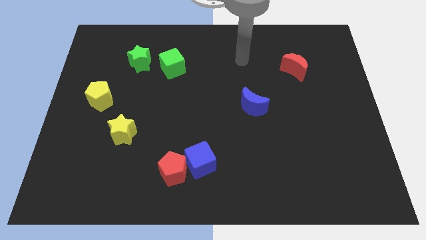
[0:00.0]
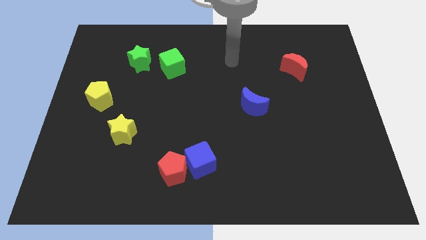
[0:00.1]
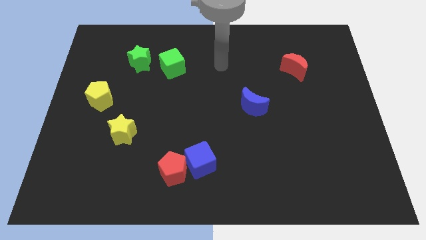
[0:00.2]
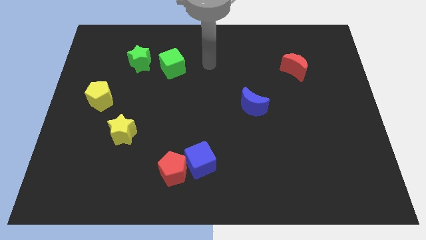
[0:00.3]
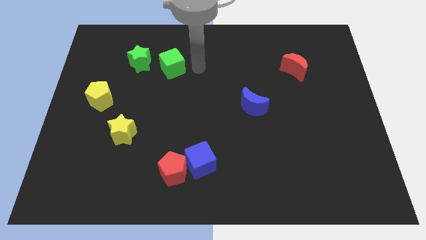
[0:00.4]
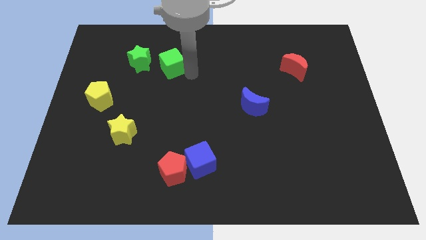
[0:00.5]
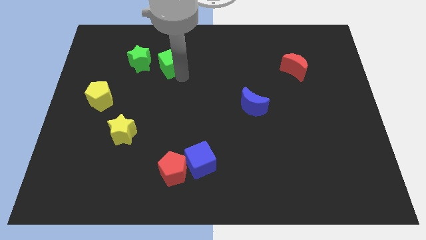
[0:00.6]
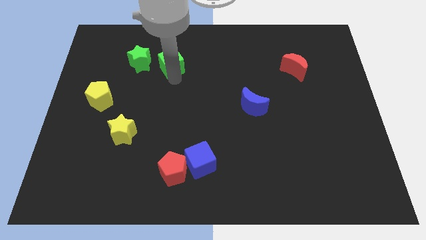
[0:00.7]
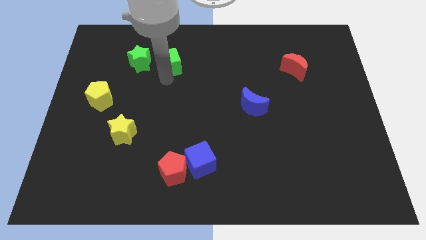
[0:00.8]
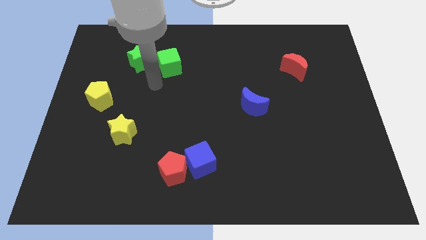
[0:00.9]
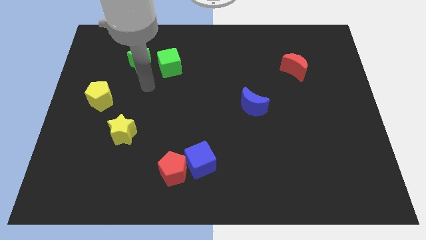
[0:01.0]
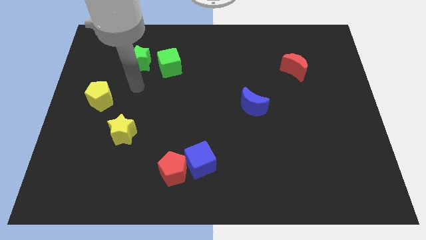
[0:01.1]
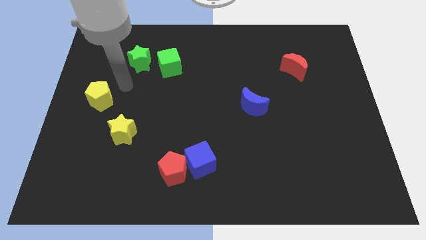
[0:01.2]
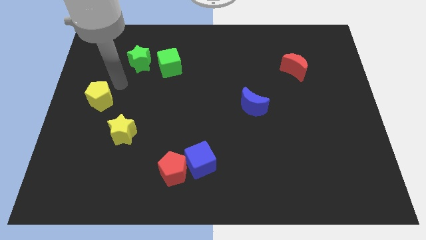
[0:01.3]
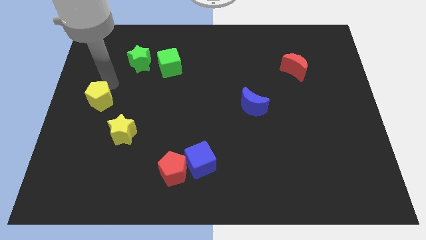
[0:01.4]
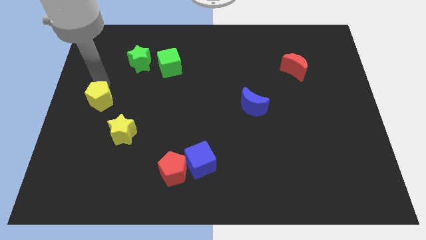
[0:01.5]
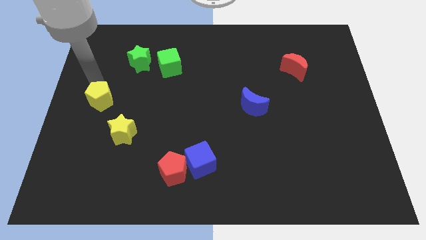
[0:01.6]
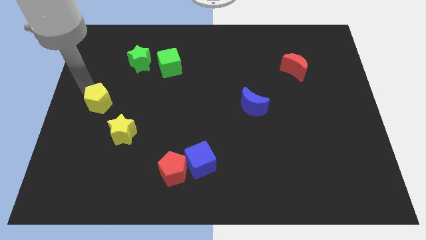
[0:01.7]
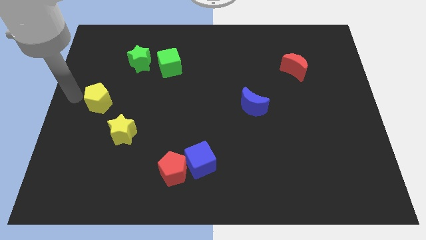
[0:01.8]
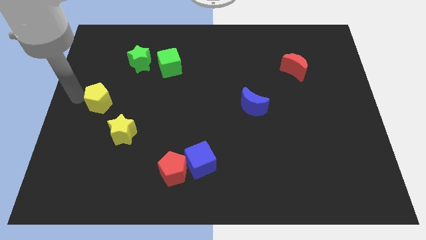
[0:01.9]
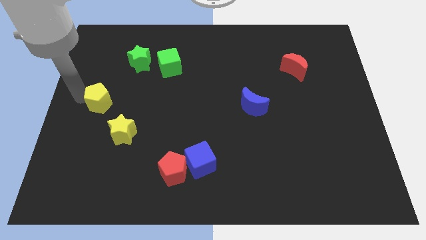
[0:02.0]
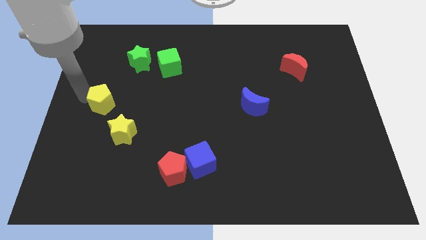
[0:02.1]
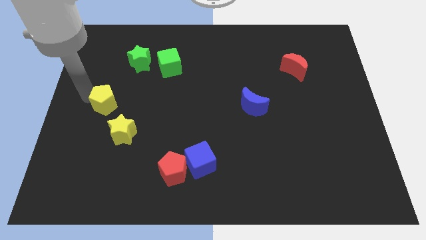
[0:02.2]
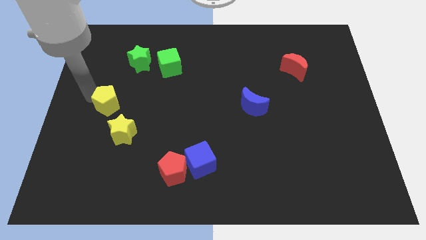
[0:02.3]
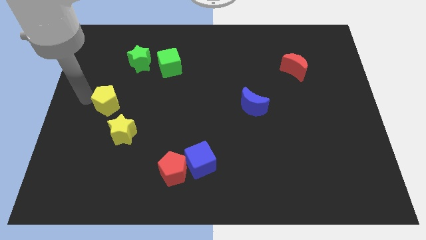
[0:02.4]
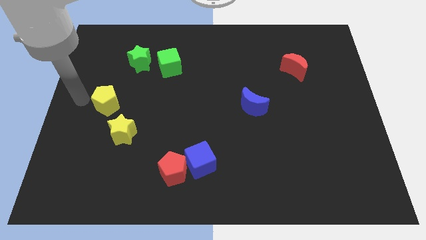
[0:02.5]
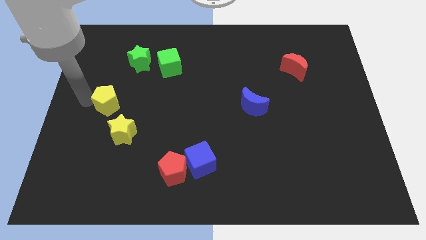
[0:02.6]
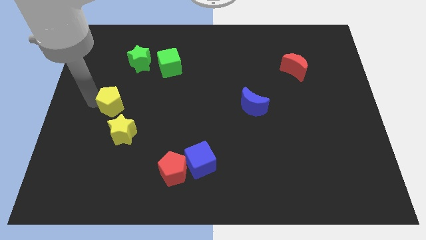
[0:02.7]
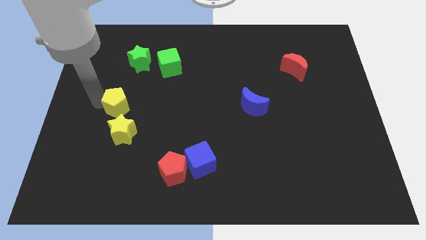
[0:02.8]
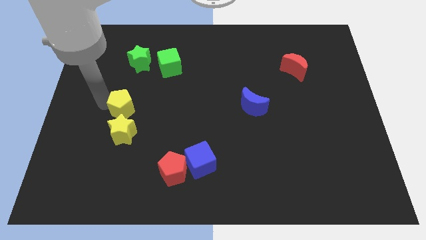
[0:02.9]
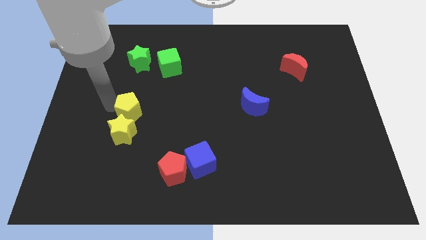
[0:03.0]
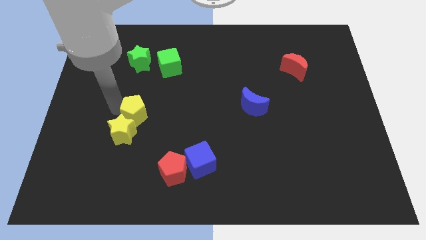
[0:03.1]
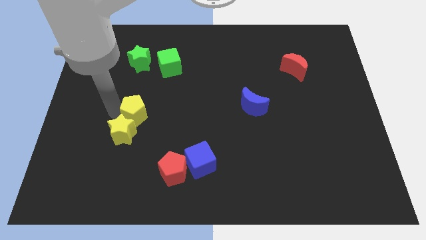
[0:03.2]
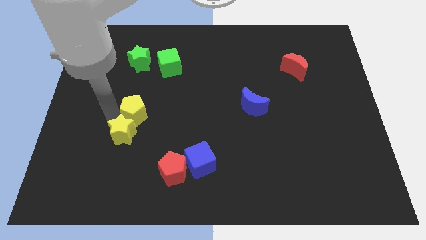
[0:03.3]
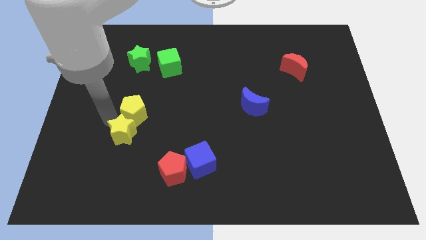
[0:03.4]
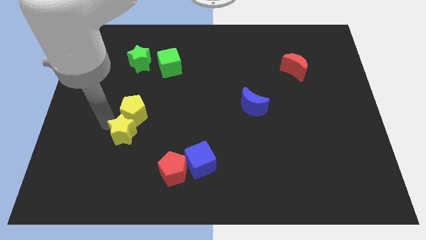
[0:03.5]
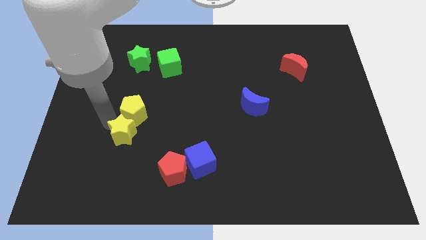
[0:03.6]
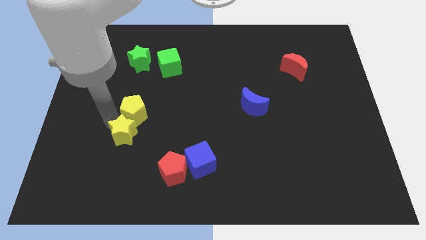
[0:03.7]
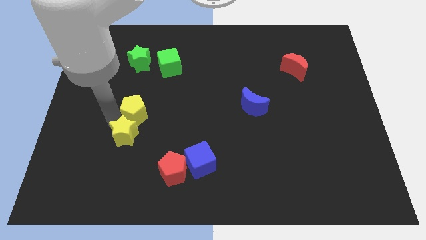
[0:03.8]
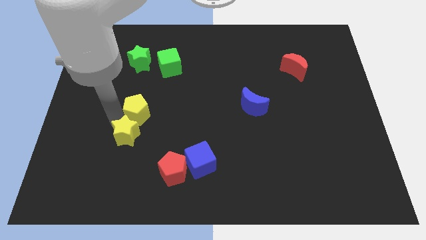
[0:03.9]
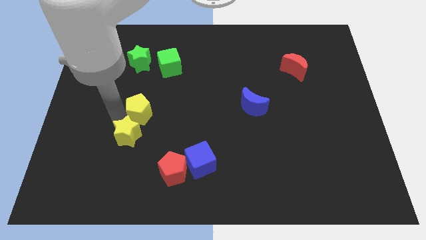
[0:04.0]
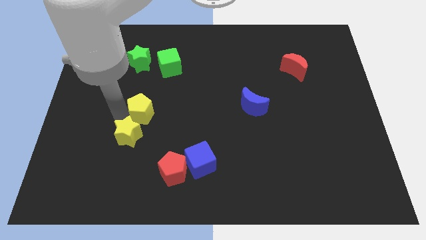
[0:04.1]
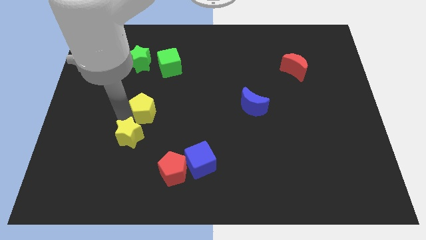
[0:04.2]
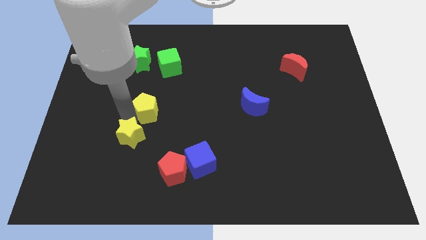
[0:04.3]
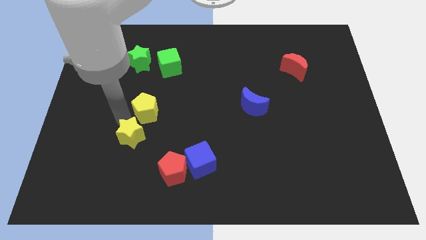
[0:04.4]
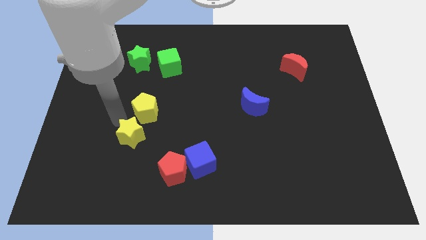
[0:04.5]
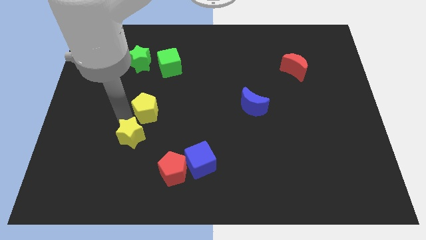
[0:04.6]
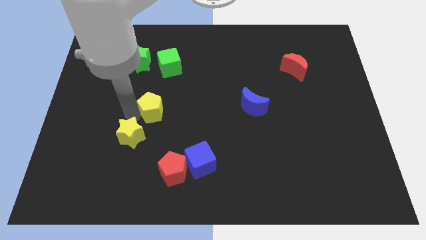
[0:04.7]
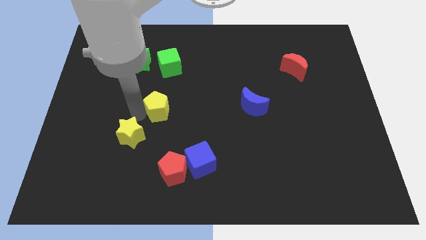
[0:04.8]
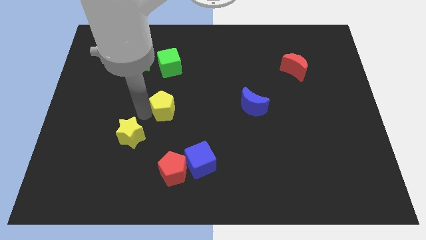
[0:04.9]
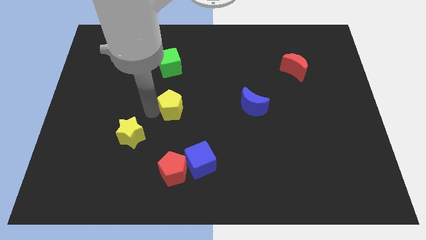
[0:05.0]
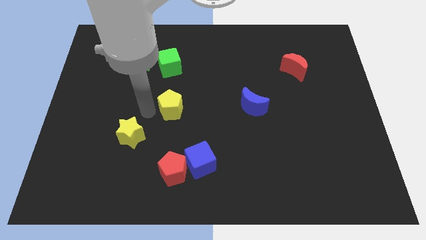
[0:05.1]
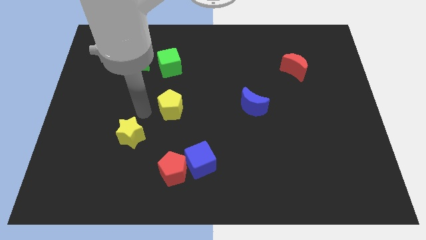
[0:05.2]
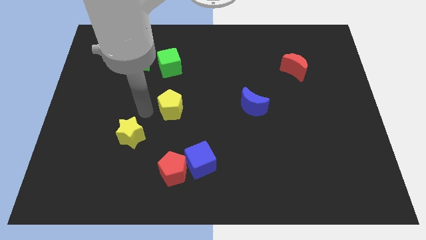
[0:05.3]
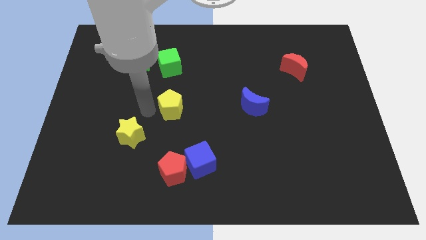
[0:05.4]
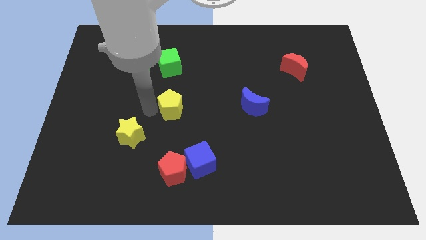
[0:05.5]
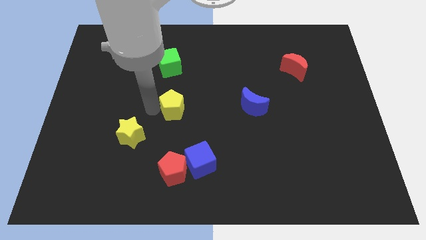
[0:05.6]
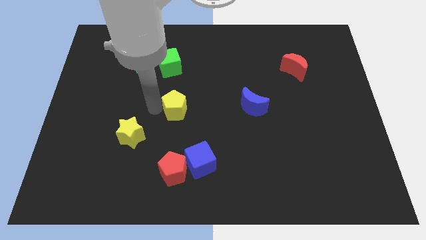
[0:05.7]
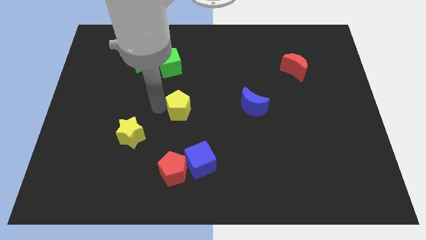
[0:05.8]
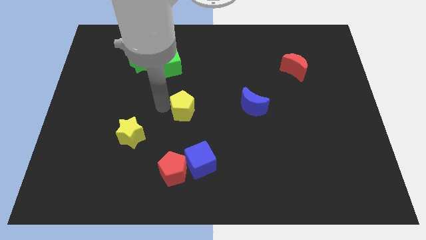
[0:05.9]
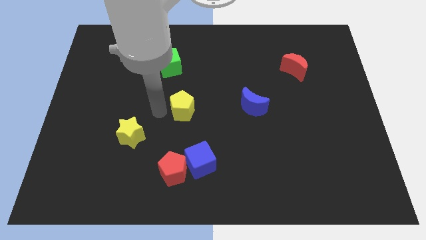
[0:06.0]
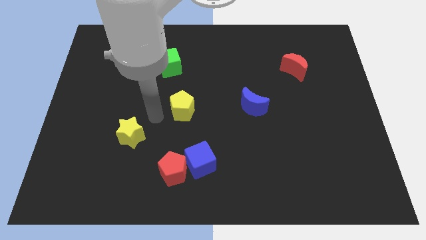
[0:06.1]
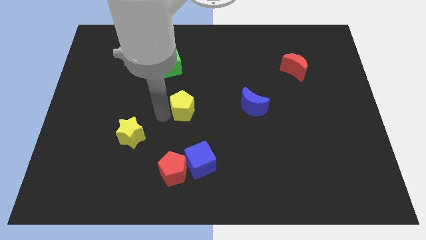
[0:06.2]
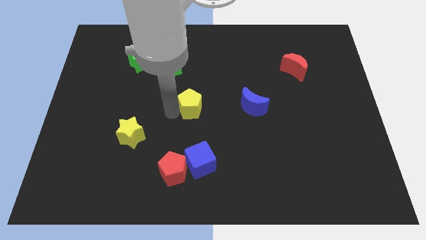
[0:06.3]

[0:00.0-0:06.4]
move the yellow pentagon right

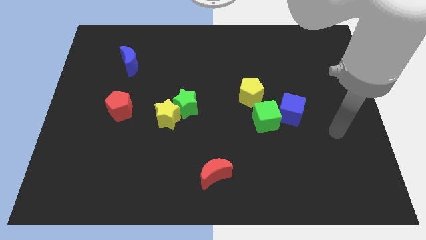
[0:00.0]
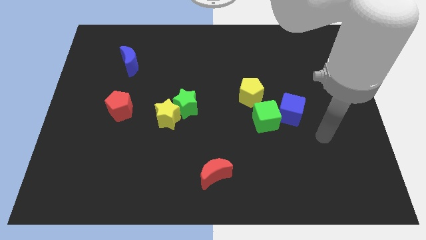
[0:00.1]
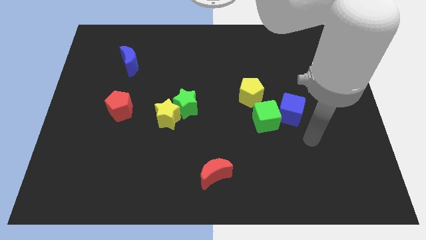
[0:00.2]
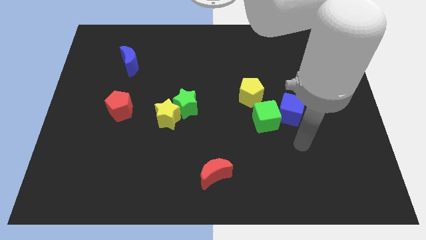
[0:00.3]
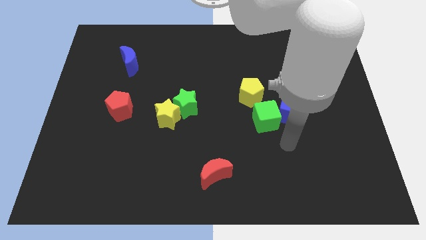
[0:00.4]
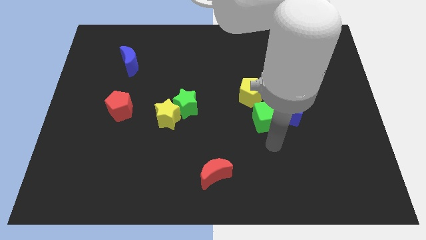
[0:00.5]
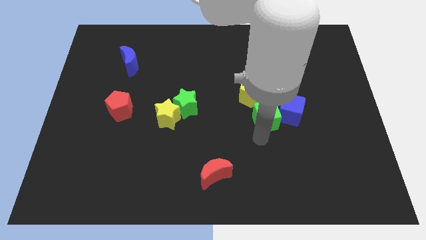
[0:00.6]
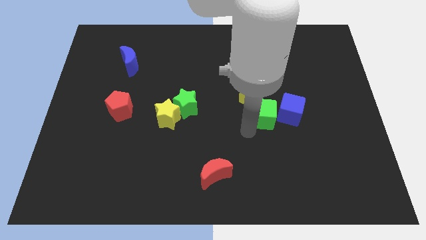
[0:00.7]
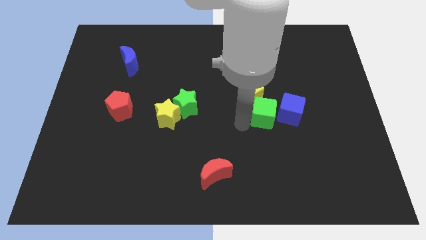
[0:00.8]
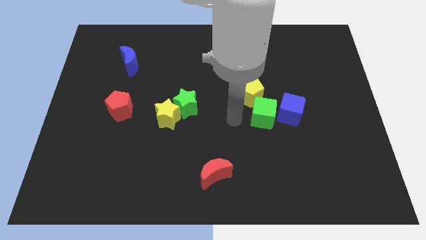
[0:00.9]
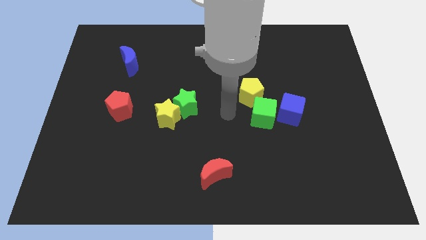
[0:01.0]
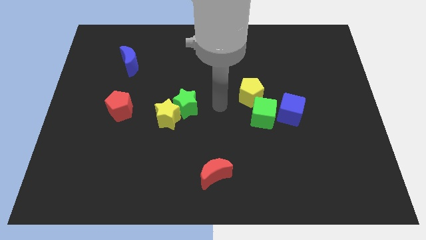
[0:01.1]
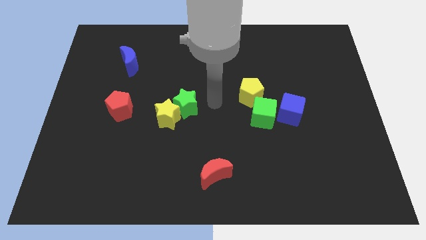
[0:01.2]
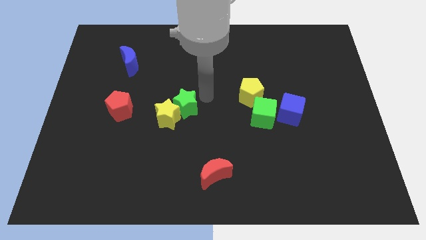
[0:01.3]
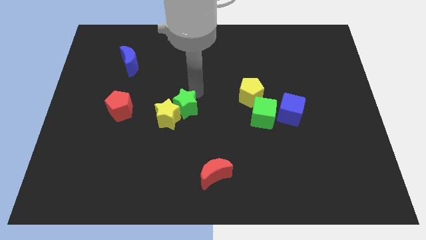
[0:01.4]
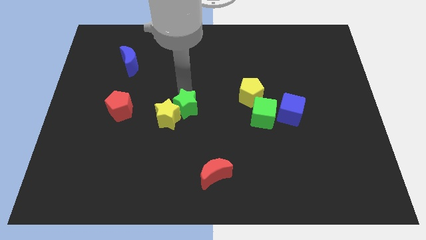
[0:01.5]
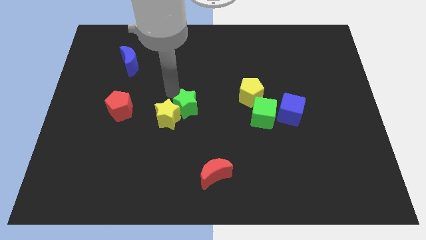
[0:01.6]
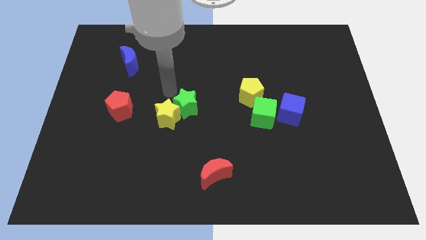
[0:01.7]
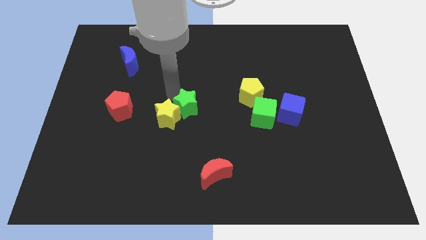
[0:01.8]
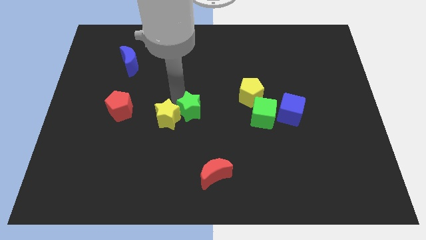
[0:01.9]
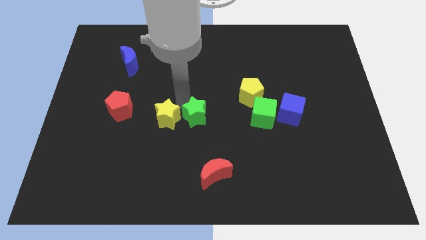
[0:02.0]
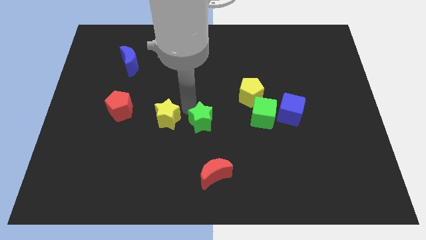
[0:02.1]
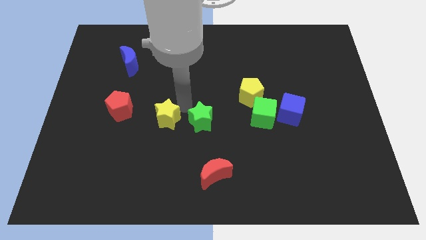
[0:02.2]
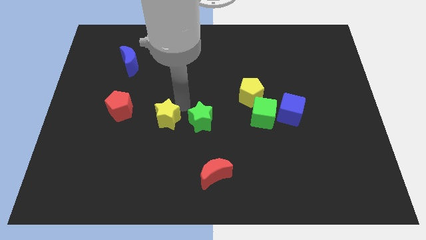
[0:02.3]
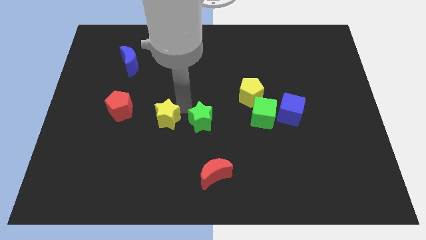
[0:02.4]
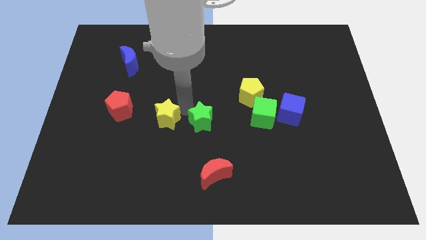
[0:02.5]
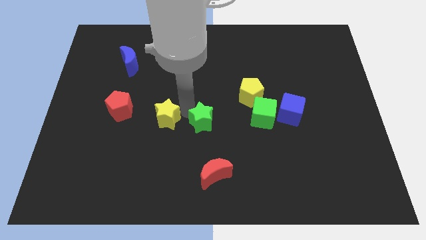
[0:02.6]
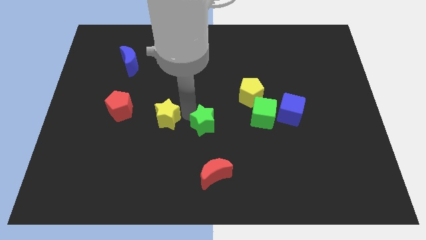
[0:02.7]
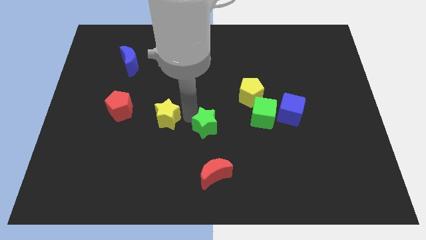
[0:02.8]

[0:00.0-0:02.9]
slide the green star a little down and right diagonally
